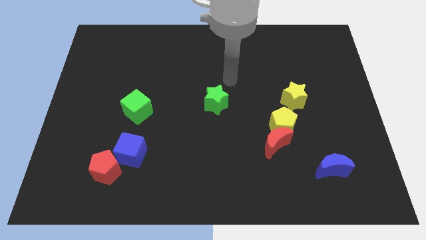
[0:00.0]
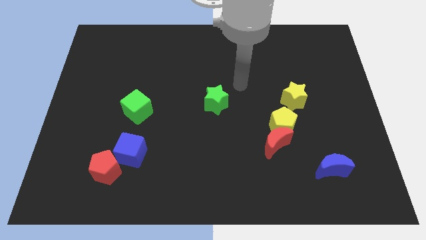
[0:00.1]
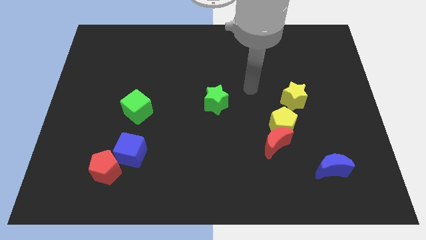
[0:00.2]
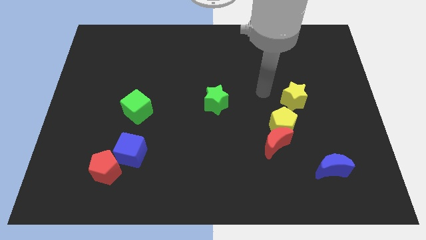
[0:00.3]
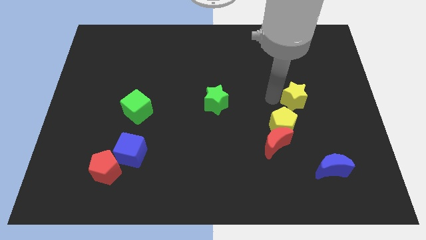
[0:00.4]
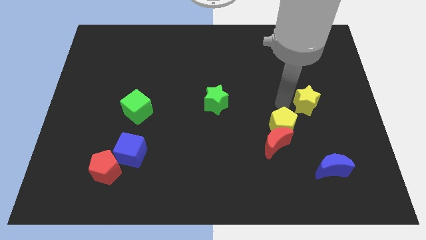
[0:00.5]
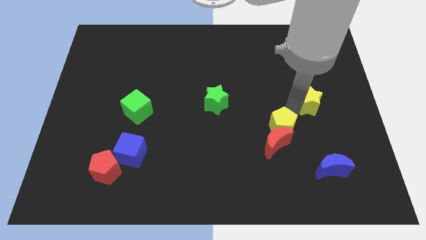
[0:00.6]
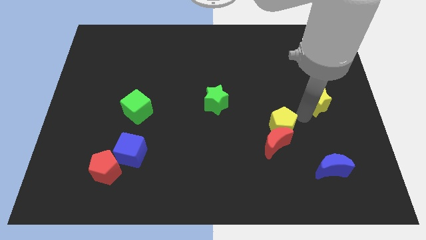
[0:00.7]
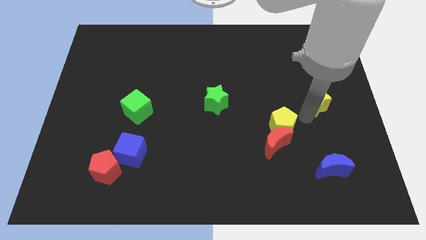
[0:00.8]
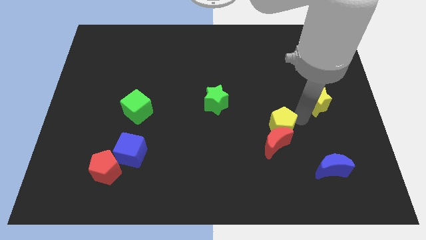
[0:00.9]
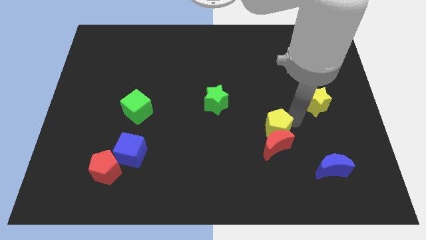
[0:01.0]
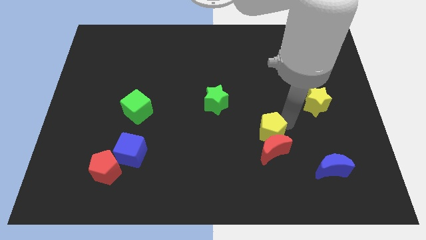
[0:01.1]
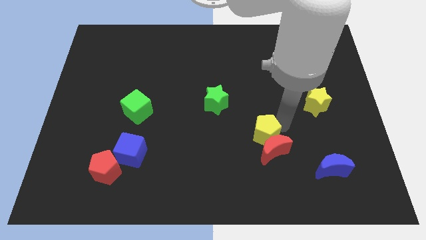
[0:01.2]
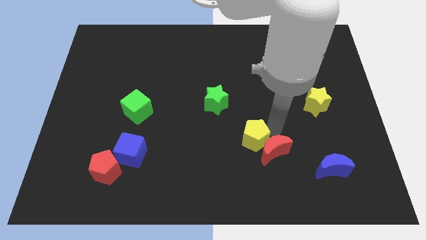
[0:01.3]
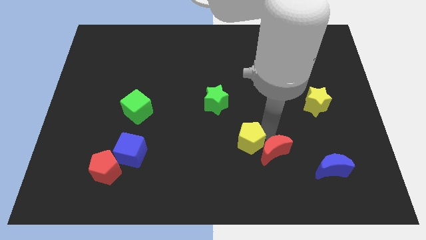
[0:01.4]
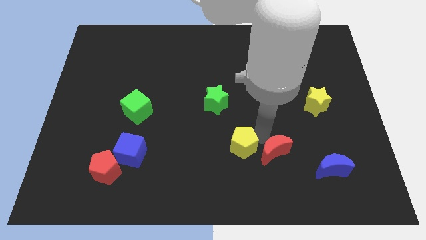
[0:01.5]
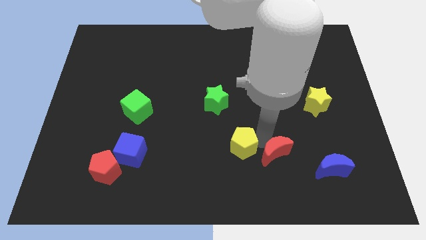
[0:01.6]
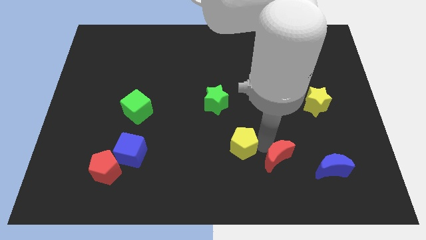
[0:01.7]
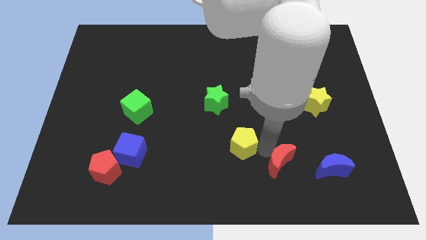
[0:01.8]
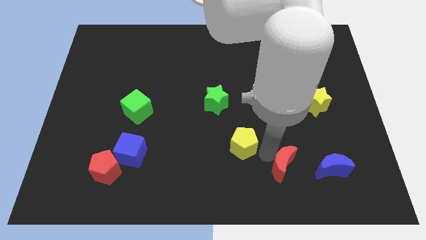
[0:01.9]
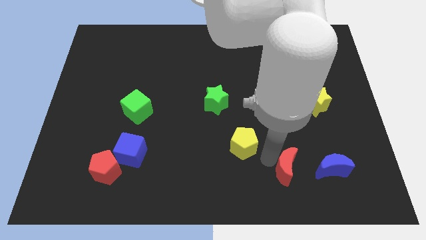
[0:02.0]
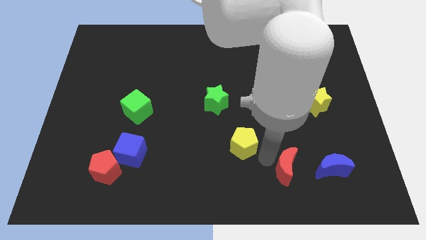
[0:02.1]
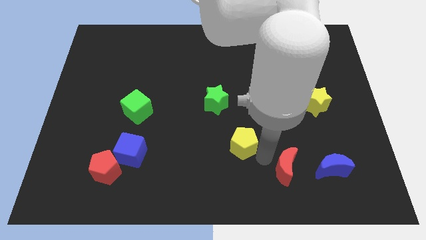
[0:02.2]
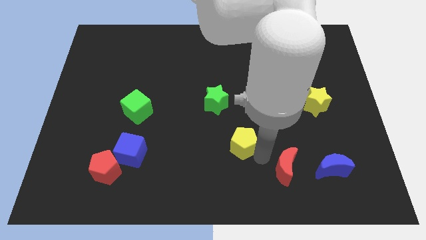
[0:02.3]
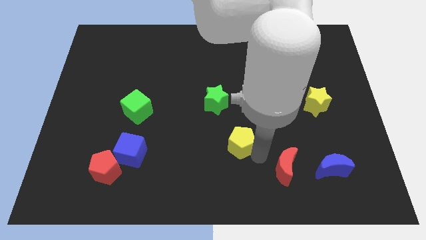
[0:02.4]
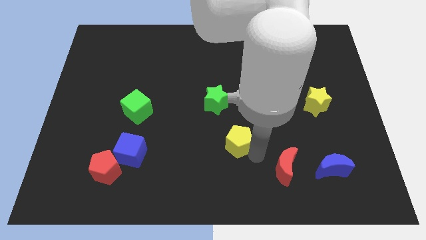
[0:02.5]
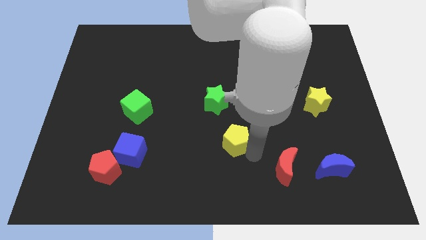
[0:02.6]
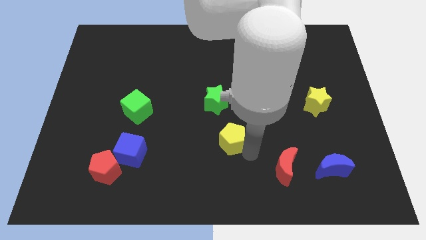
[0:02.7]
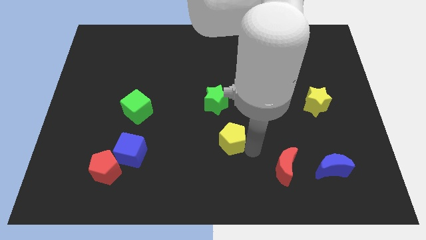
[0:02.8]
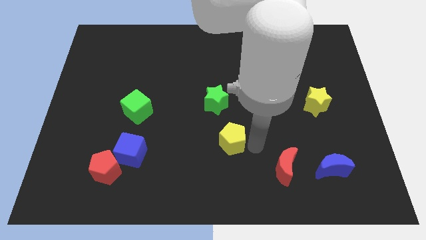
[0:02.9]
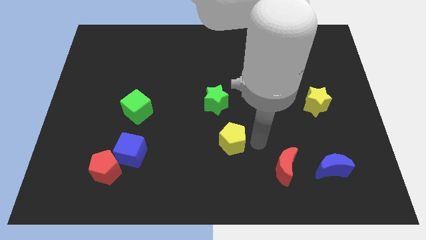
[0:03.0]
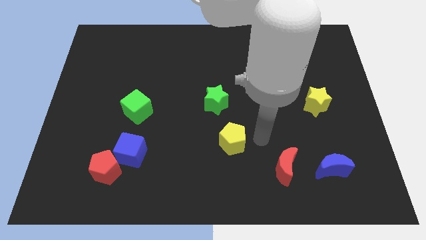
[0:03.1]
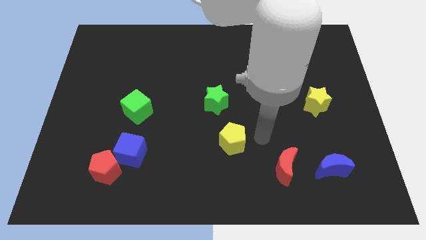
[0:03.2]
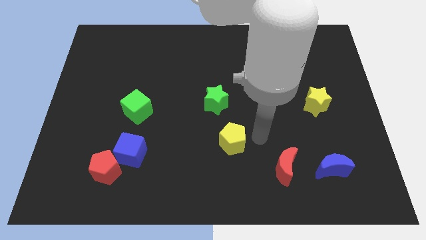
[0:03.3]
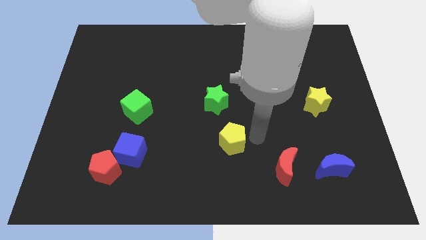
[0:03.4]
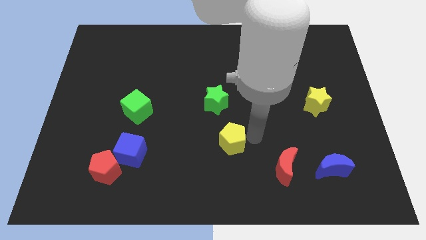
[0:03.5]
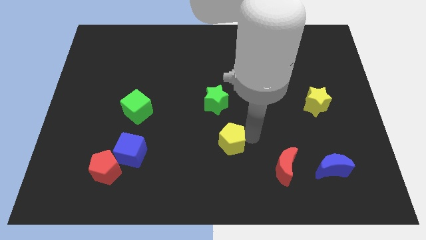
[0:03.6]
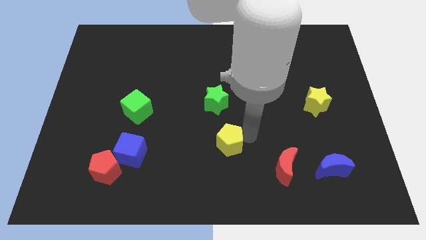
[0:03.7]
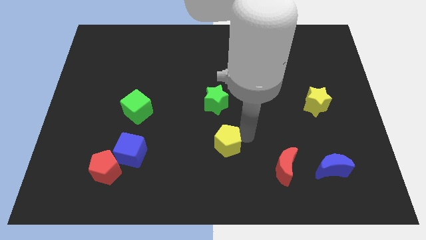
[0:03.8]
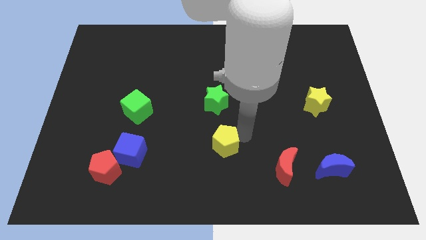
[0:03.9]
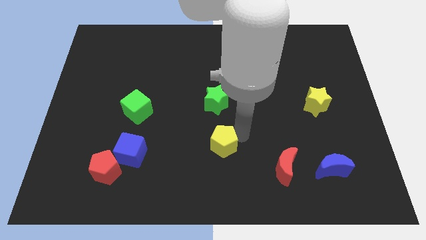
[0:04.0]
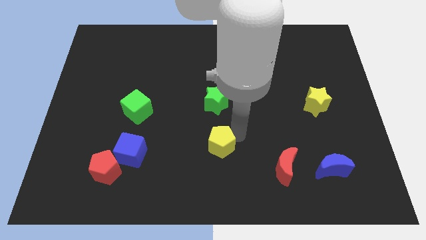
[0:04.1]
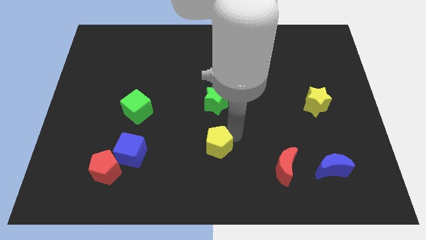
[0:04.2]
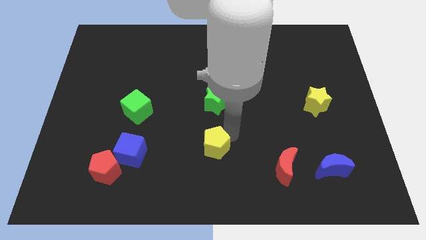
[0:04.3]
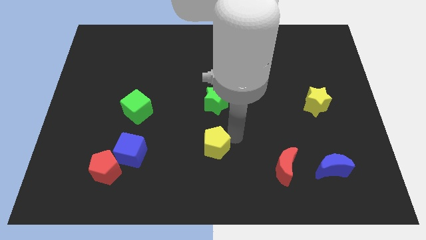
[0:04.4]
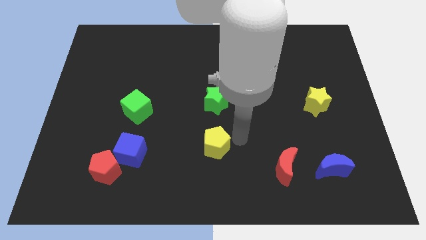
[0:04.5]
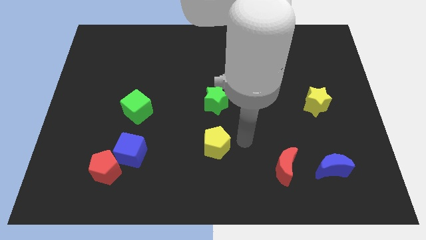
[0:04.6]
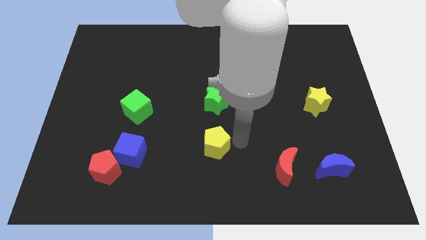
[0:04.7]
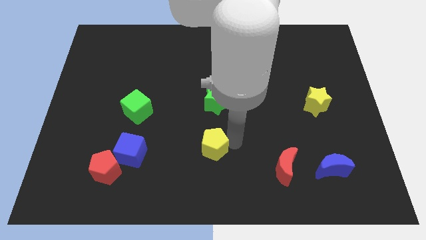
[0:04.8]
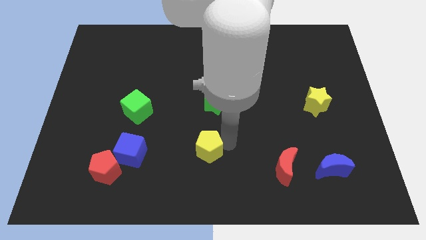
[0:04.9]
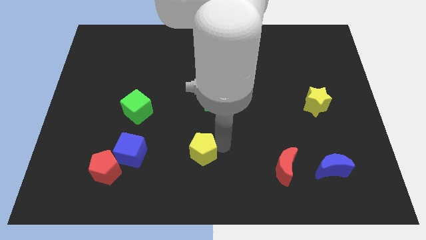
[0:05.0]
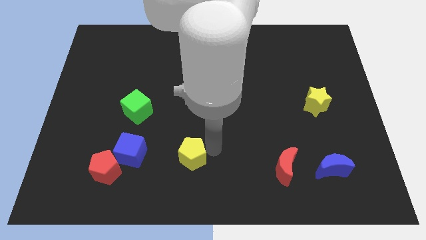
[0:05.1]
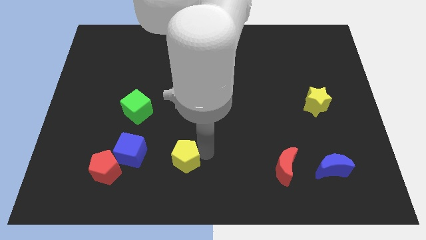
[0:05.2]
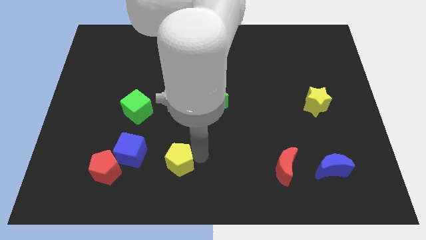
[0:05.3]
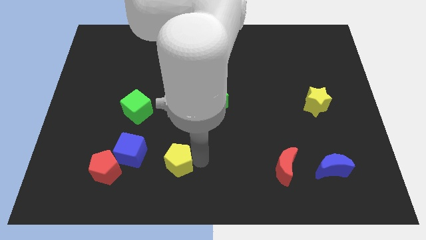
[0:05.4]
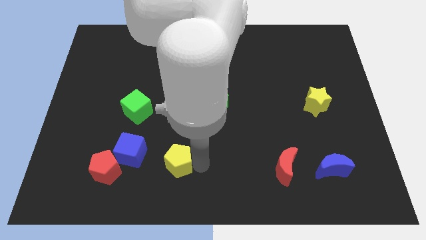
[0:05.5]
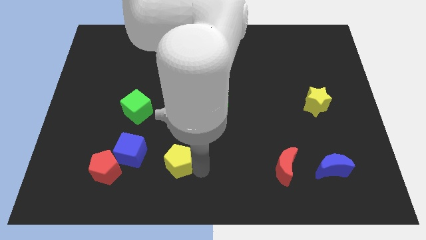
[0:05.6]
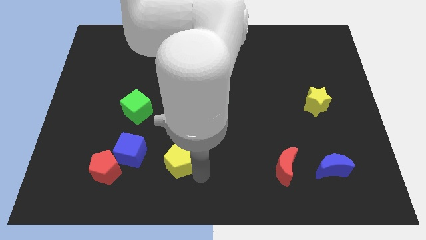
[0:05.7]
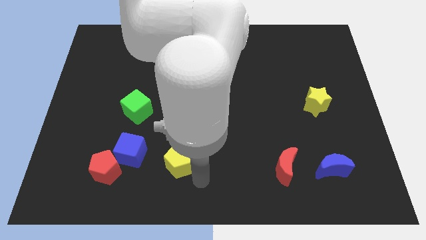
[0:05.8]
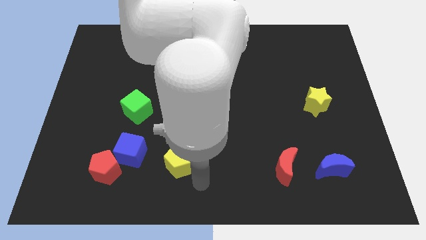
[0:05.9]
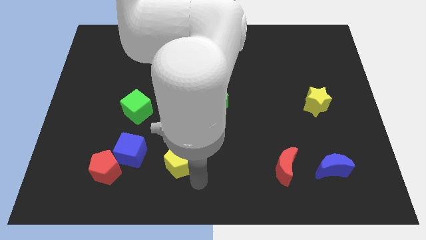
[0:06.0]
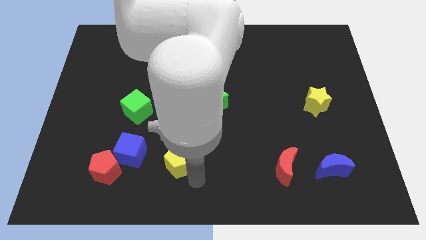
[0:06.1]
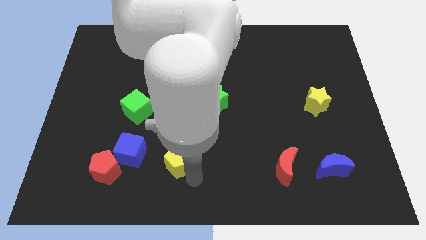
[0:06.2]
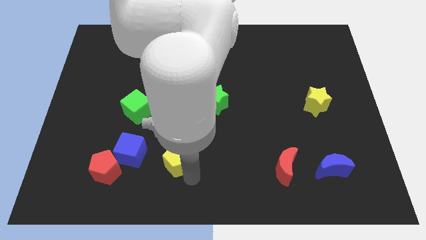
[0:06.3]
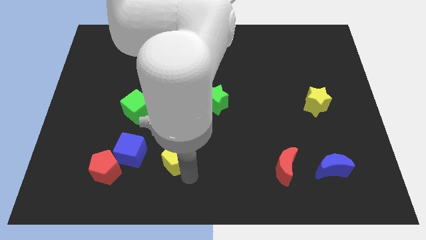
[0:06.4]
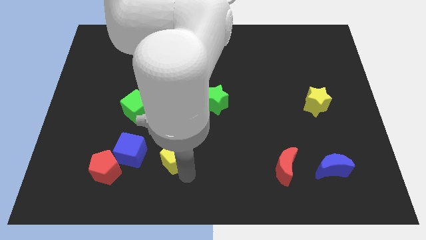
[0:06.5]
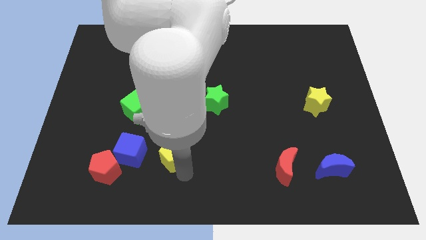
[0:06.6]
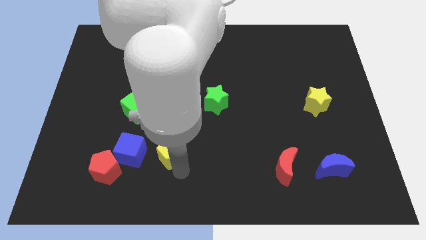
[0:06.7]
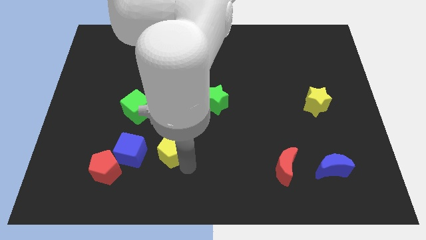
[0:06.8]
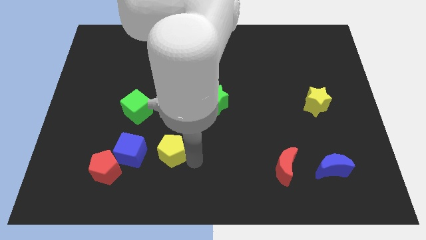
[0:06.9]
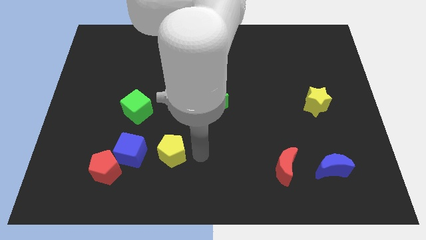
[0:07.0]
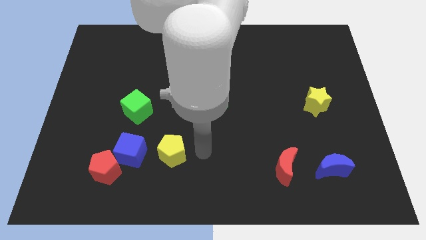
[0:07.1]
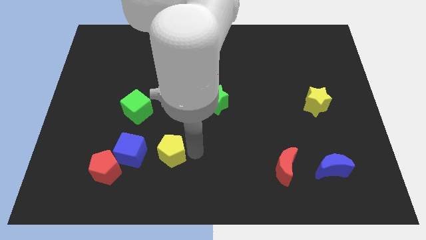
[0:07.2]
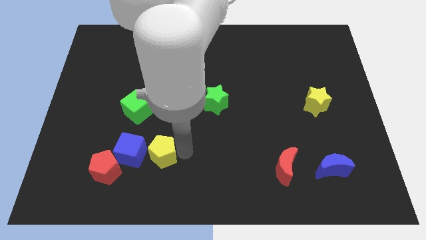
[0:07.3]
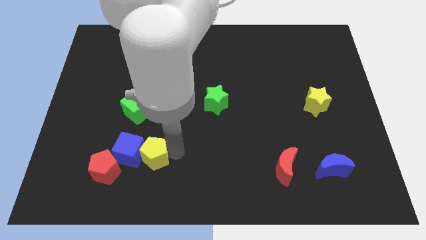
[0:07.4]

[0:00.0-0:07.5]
slide the yellow pentagon to the blue cube
